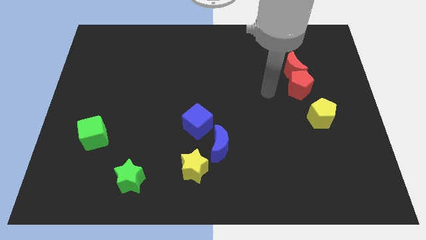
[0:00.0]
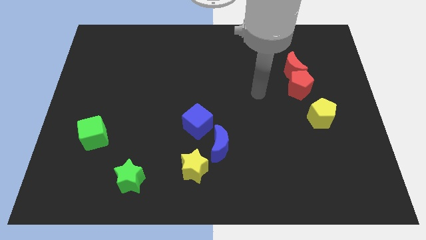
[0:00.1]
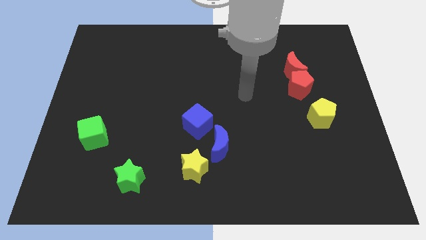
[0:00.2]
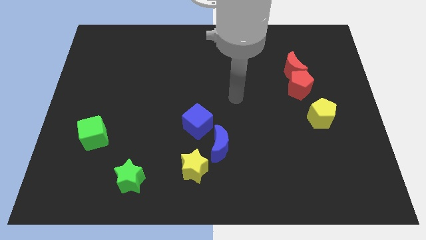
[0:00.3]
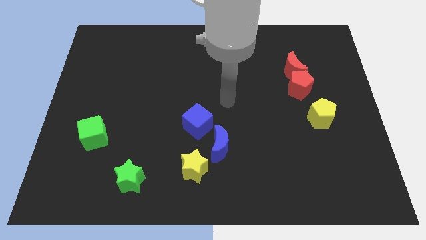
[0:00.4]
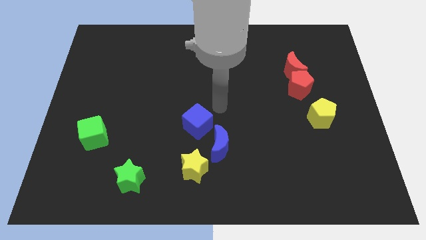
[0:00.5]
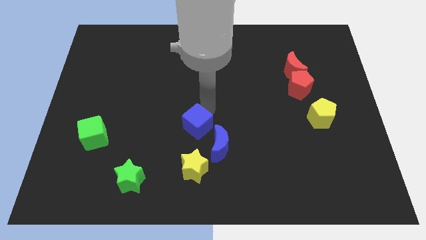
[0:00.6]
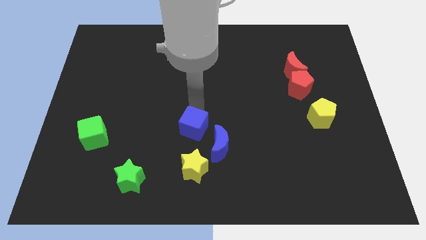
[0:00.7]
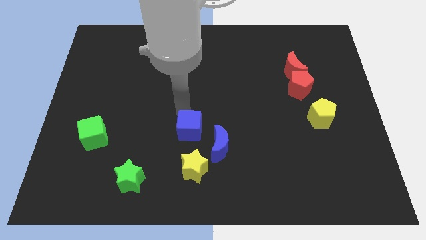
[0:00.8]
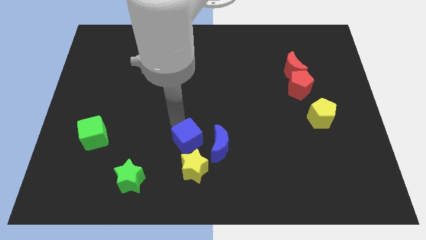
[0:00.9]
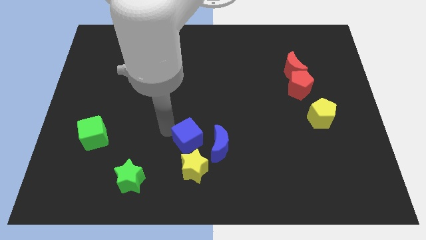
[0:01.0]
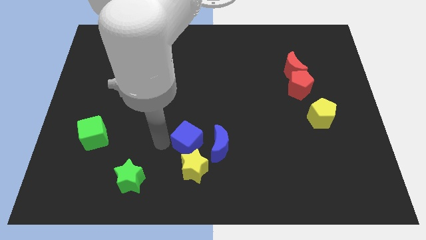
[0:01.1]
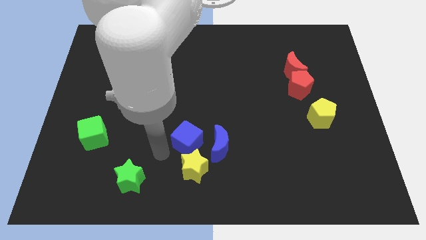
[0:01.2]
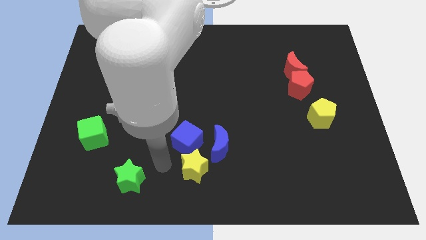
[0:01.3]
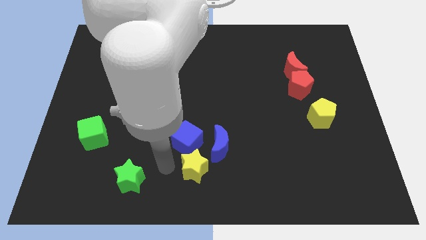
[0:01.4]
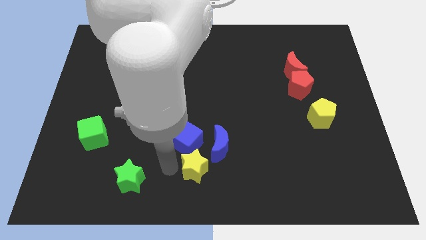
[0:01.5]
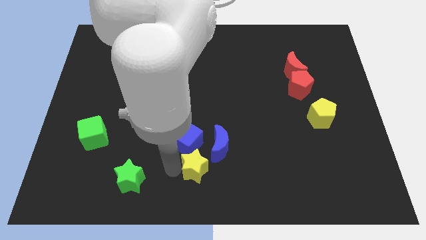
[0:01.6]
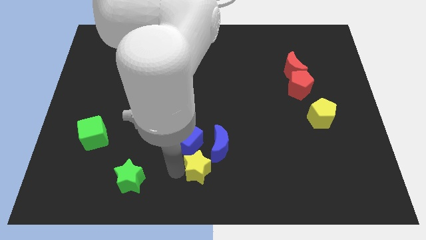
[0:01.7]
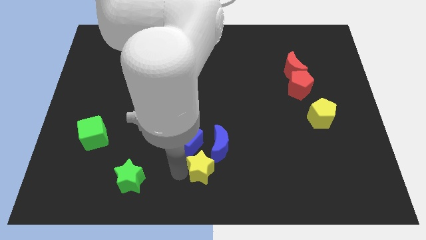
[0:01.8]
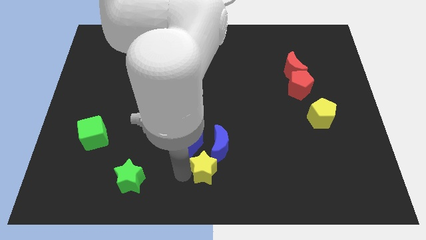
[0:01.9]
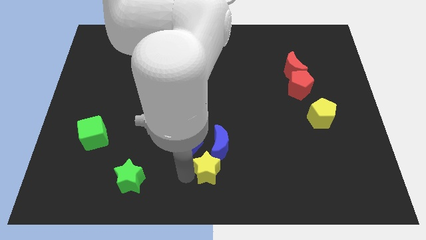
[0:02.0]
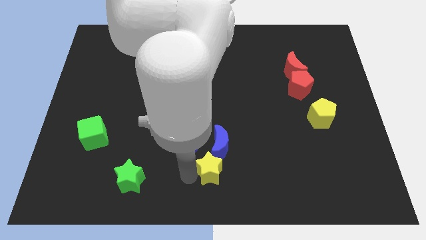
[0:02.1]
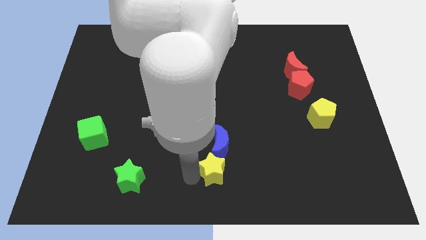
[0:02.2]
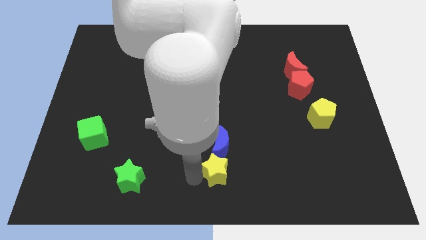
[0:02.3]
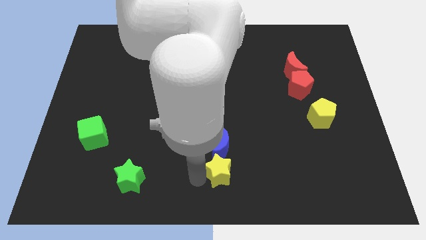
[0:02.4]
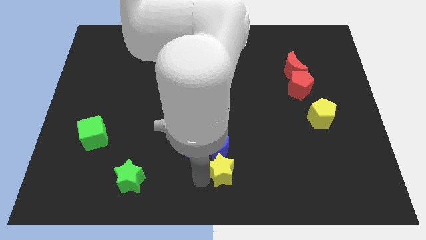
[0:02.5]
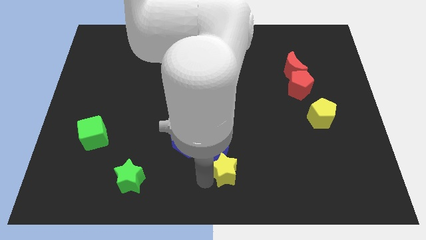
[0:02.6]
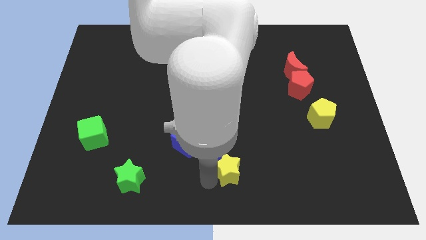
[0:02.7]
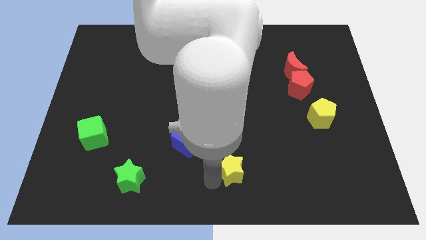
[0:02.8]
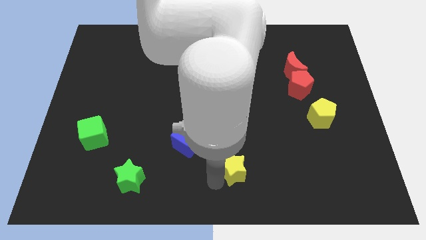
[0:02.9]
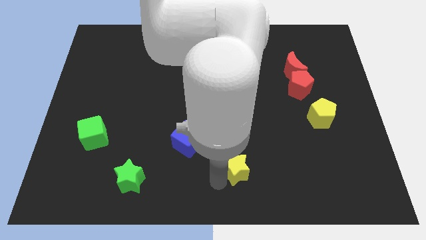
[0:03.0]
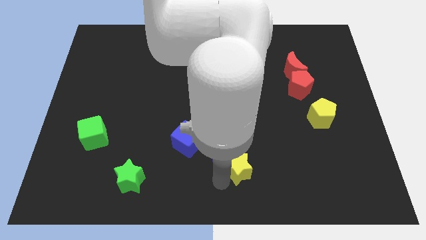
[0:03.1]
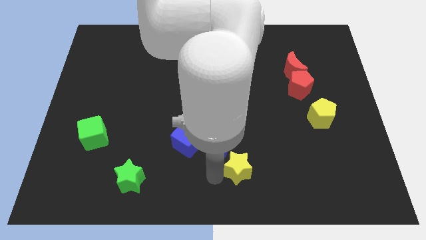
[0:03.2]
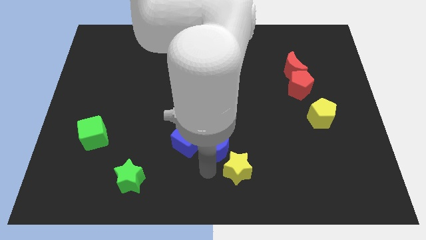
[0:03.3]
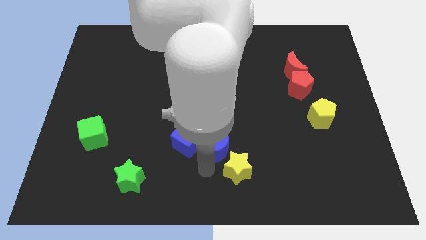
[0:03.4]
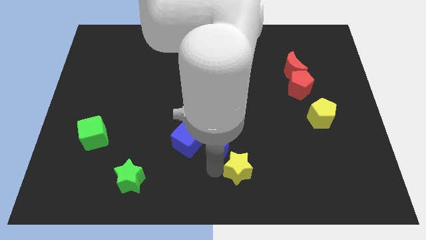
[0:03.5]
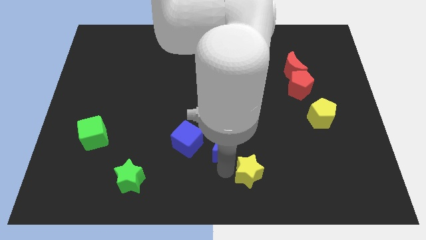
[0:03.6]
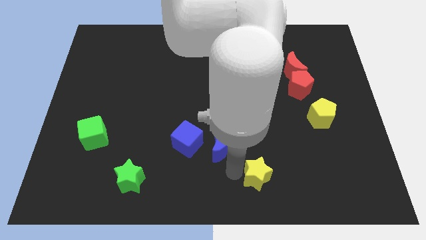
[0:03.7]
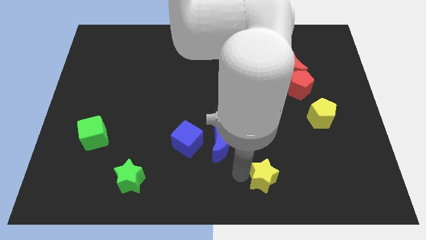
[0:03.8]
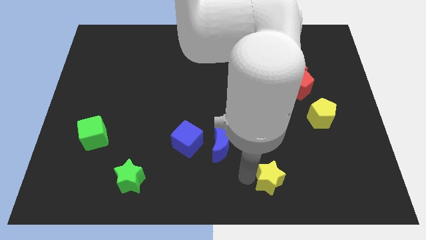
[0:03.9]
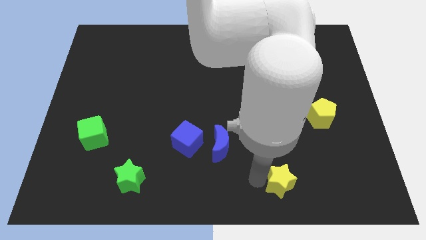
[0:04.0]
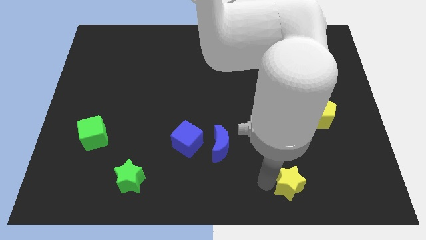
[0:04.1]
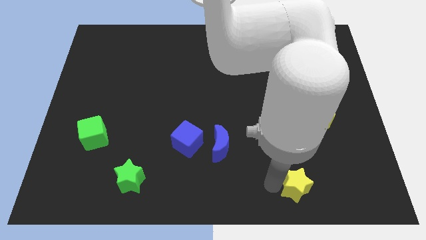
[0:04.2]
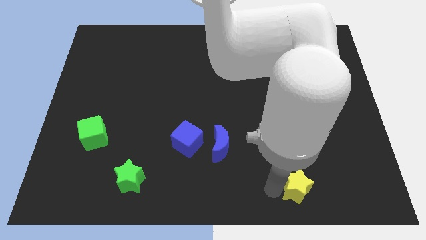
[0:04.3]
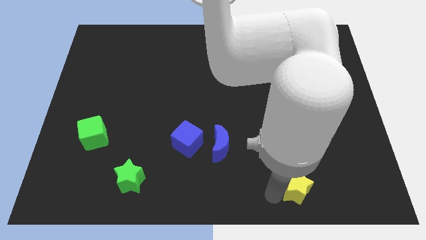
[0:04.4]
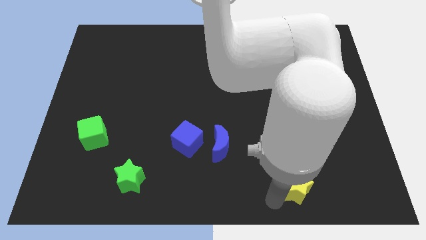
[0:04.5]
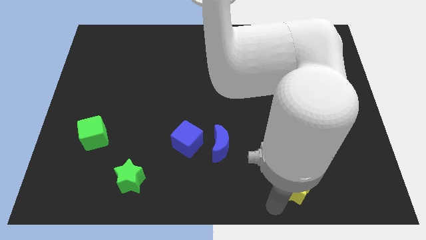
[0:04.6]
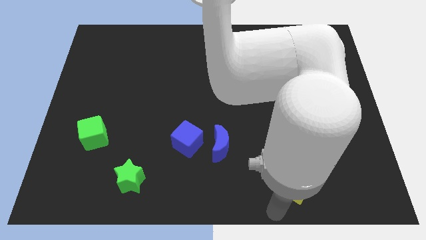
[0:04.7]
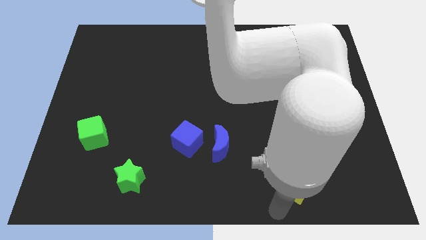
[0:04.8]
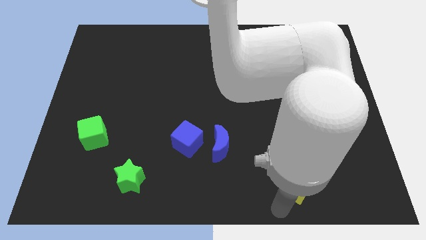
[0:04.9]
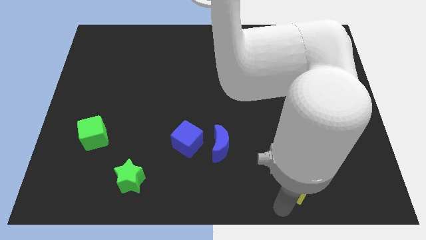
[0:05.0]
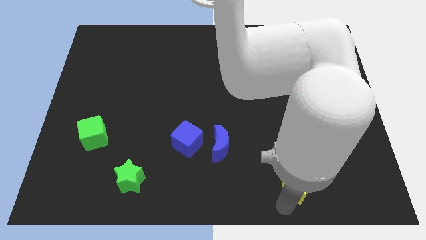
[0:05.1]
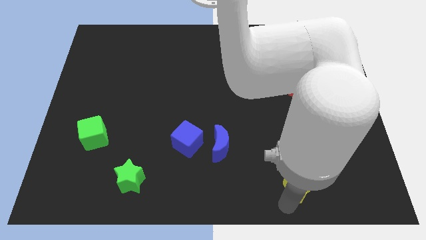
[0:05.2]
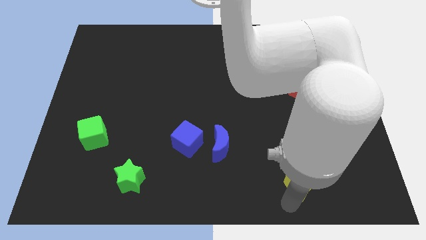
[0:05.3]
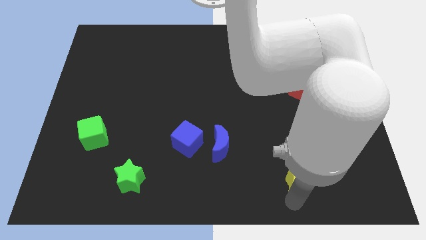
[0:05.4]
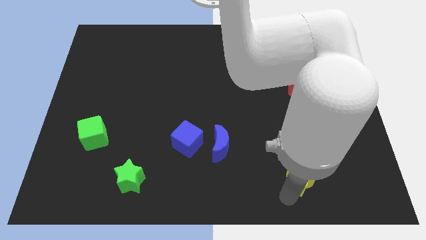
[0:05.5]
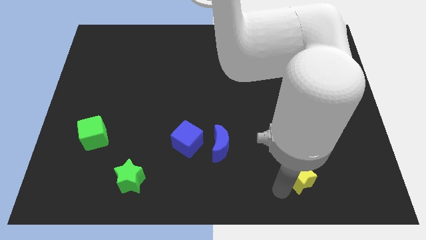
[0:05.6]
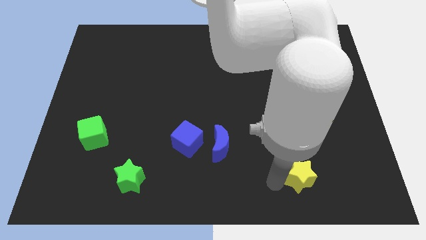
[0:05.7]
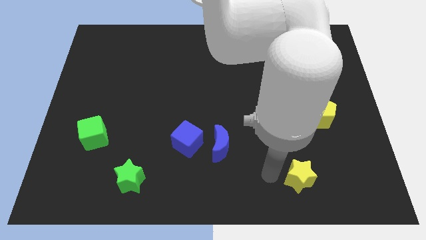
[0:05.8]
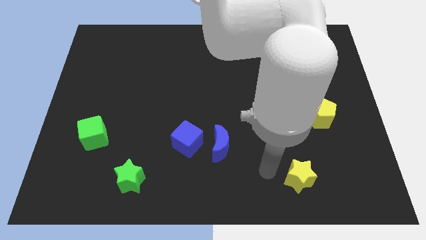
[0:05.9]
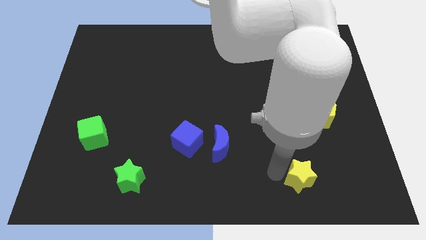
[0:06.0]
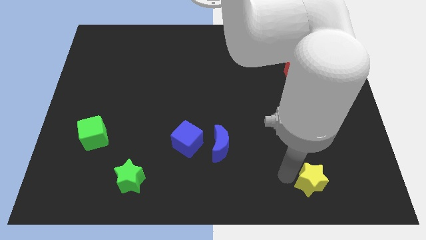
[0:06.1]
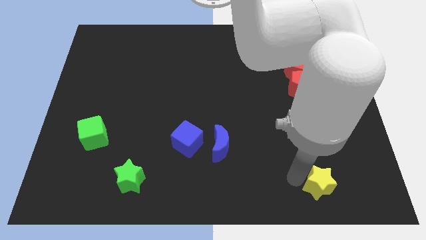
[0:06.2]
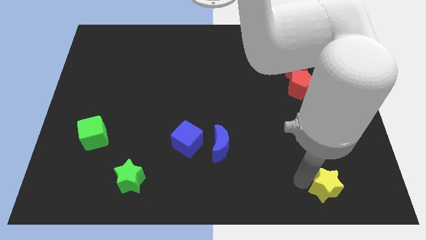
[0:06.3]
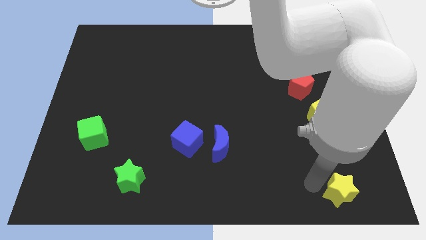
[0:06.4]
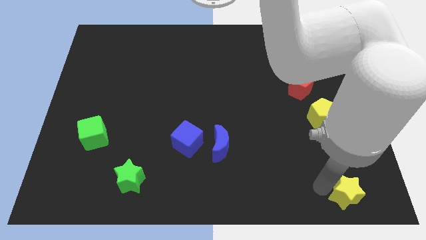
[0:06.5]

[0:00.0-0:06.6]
move the yellow star to the bottom right of the board

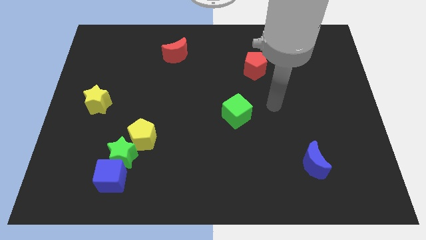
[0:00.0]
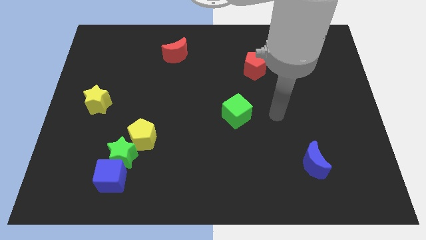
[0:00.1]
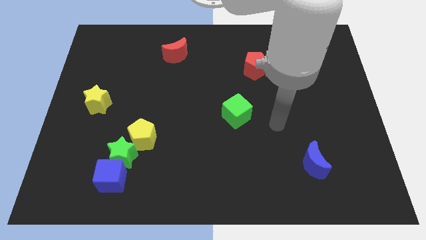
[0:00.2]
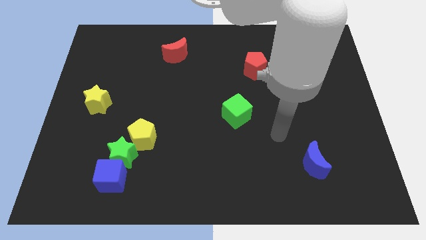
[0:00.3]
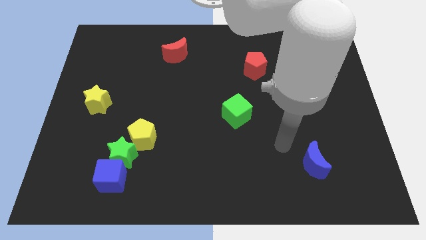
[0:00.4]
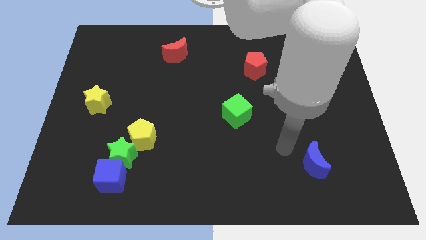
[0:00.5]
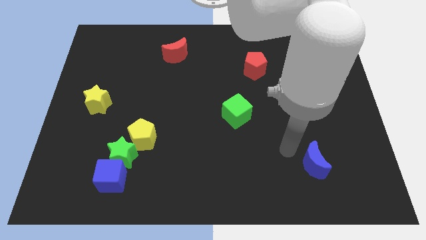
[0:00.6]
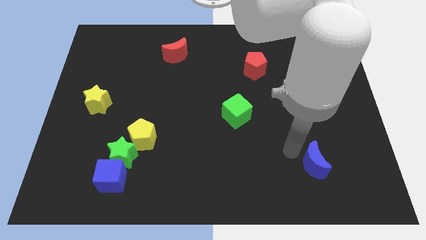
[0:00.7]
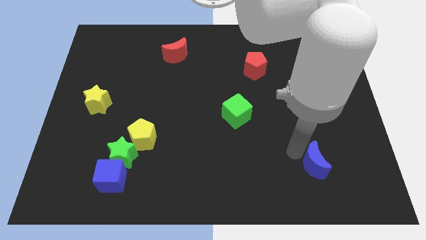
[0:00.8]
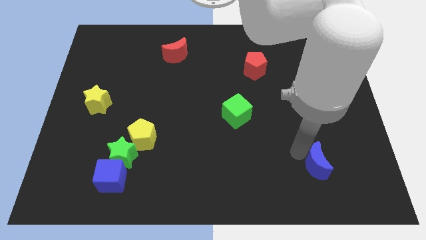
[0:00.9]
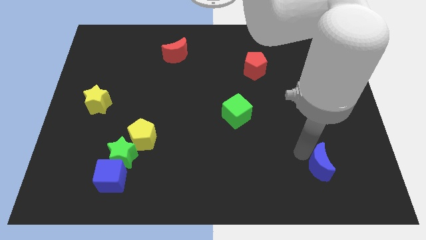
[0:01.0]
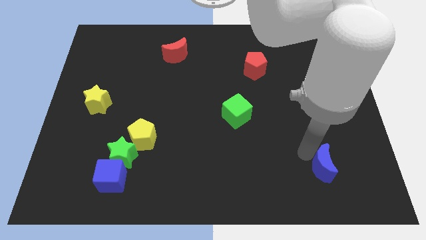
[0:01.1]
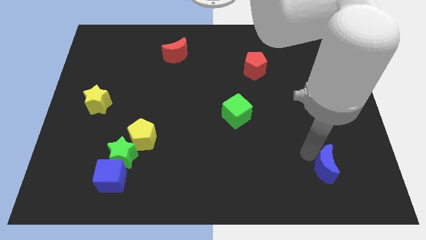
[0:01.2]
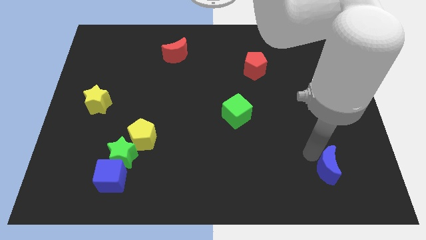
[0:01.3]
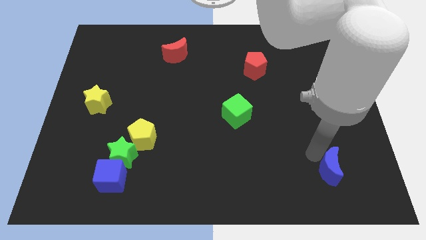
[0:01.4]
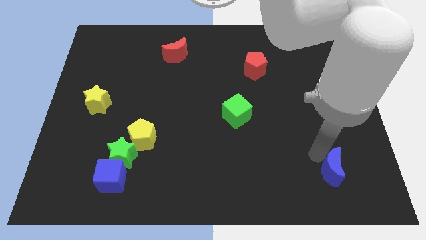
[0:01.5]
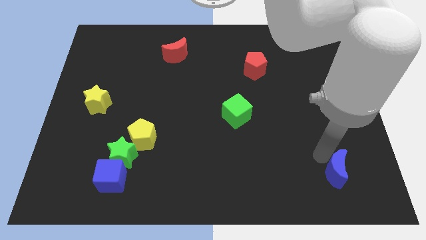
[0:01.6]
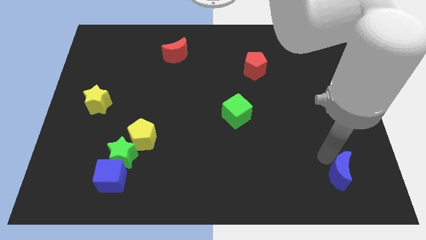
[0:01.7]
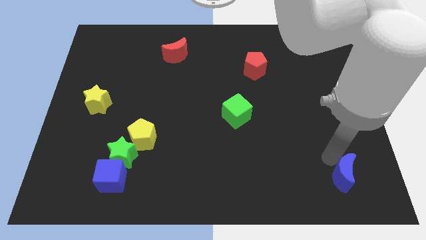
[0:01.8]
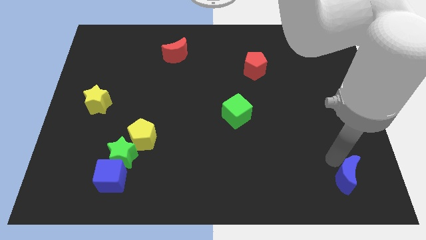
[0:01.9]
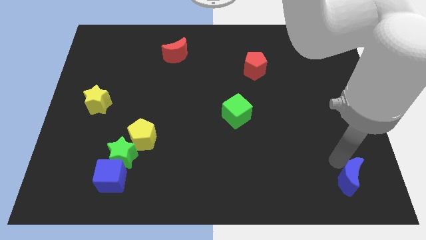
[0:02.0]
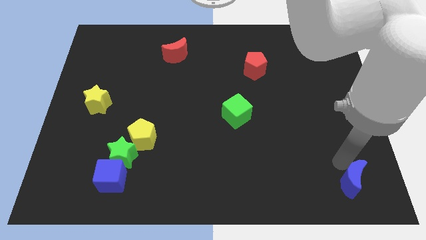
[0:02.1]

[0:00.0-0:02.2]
move the blue moon to the bottom right
